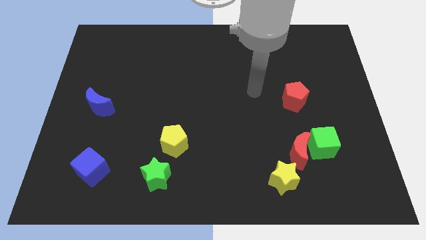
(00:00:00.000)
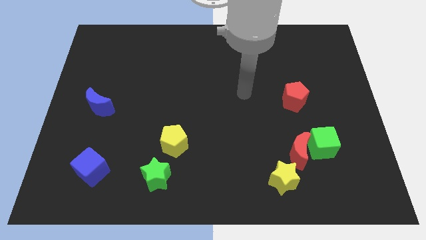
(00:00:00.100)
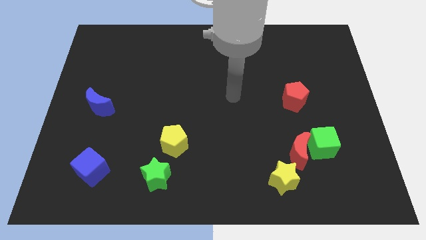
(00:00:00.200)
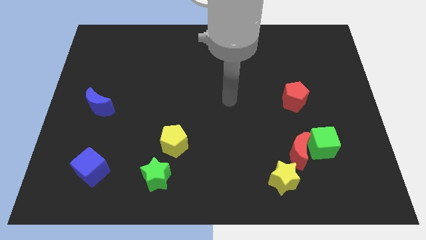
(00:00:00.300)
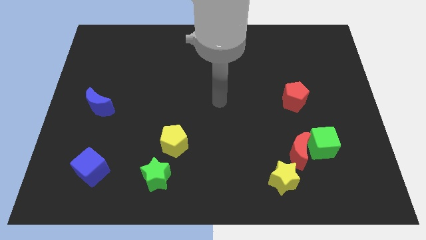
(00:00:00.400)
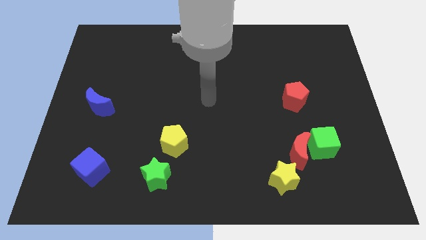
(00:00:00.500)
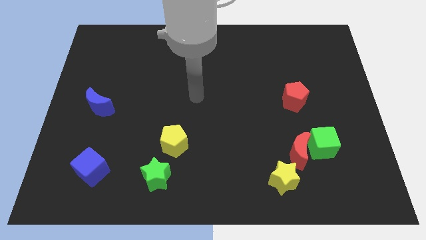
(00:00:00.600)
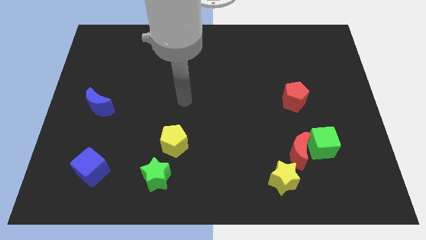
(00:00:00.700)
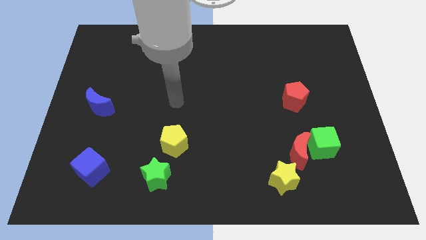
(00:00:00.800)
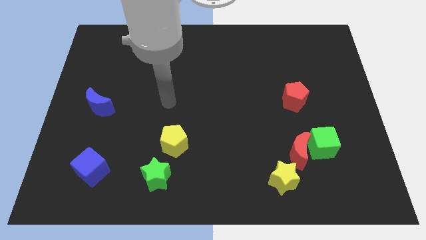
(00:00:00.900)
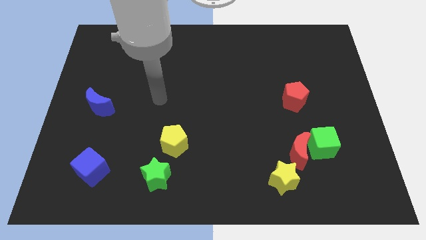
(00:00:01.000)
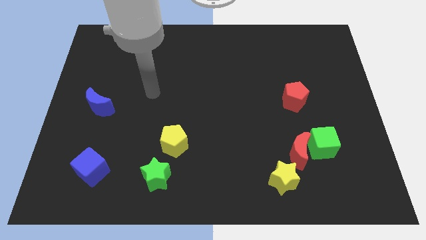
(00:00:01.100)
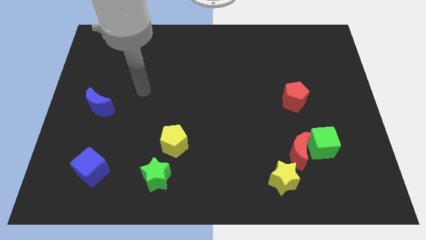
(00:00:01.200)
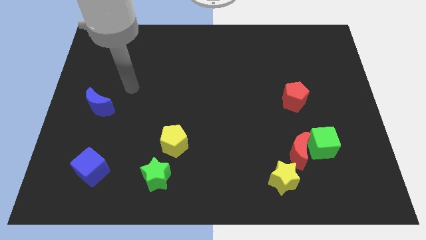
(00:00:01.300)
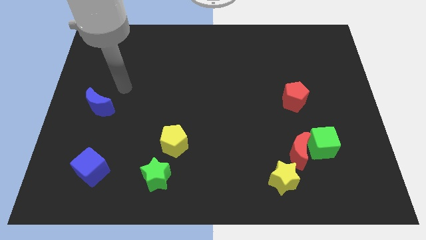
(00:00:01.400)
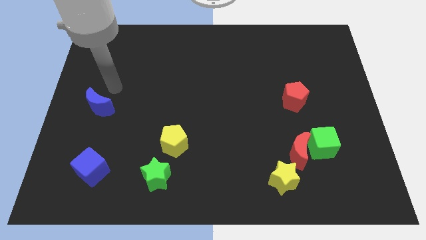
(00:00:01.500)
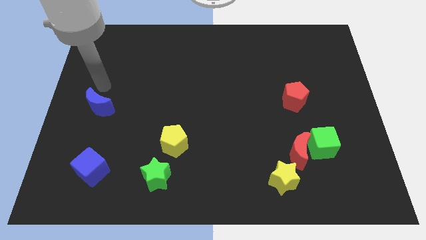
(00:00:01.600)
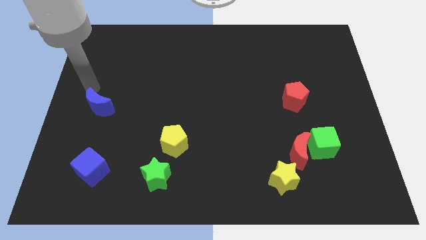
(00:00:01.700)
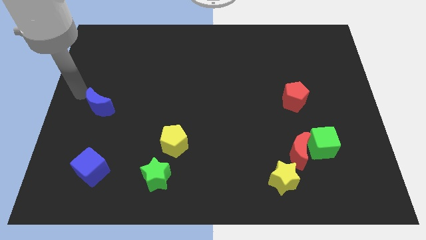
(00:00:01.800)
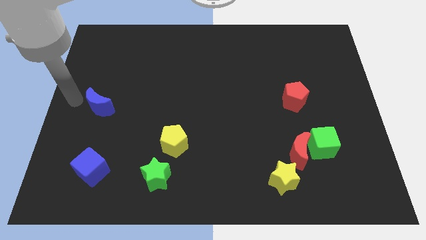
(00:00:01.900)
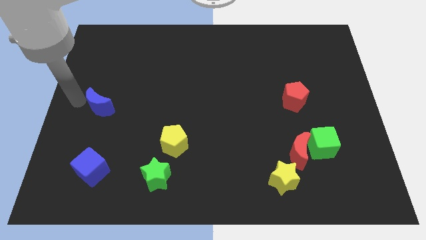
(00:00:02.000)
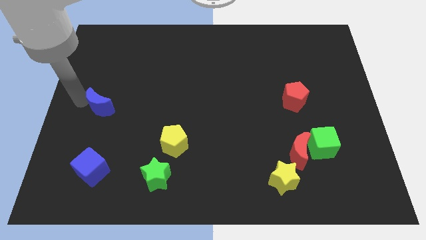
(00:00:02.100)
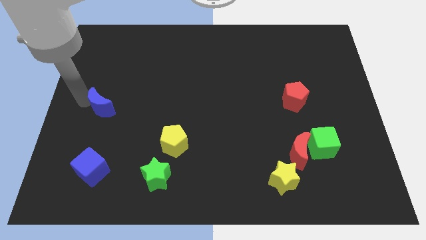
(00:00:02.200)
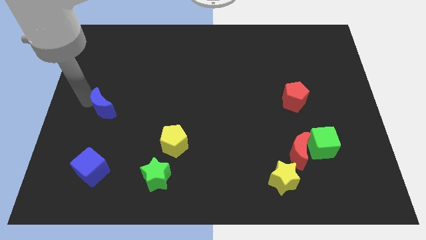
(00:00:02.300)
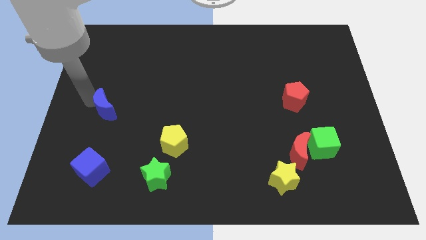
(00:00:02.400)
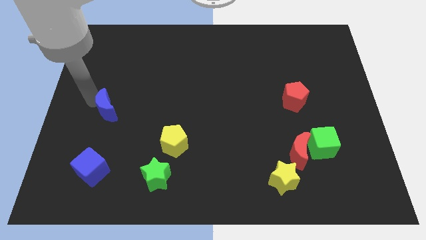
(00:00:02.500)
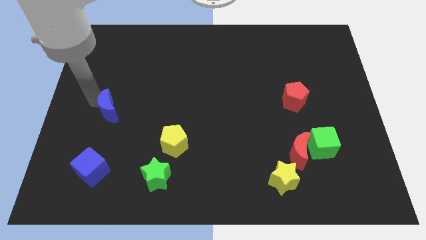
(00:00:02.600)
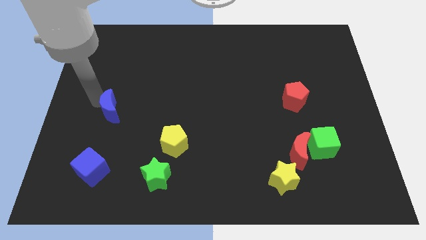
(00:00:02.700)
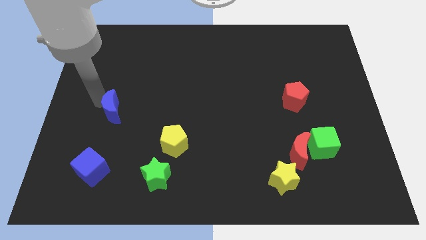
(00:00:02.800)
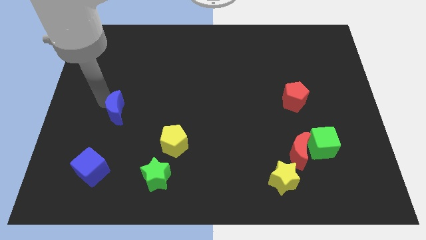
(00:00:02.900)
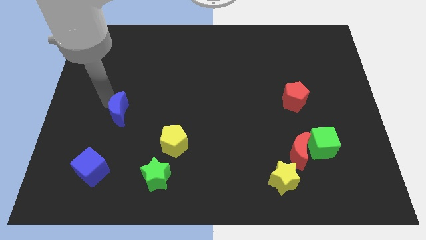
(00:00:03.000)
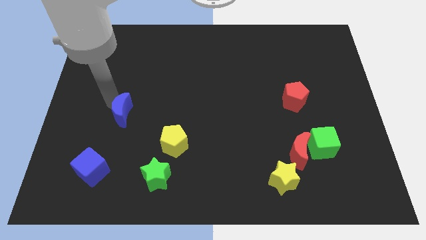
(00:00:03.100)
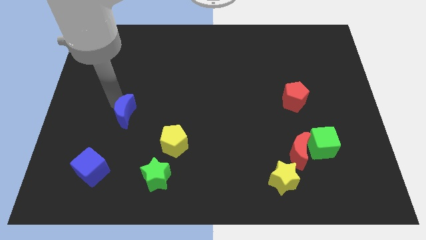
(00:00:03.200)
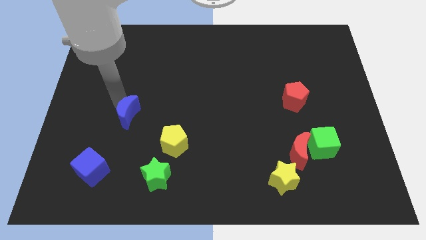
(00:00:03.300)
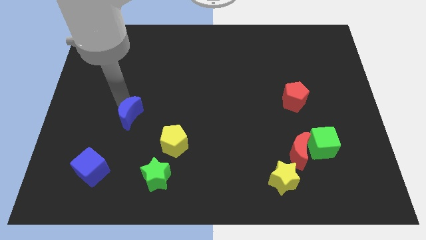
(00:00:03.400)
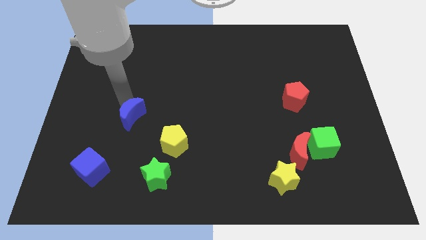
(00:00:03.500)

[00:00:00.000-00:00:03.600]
slightly slide the blue moon diagonally down and to the right

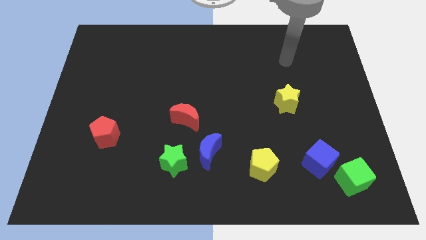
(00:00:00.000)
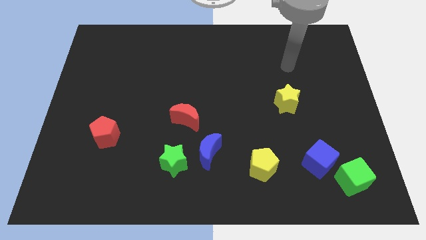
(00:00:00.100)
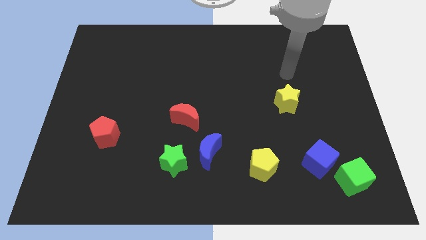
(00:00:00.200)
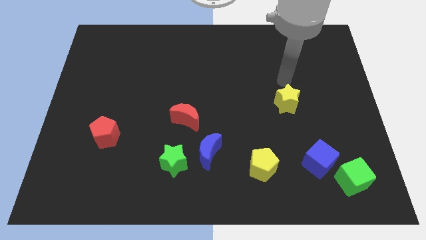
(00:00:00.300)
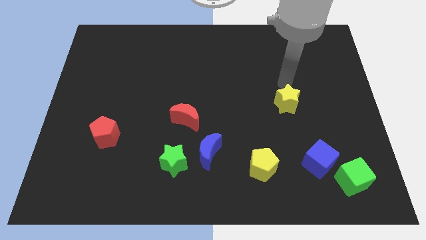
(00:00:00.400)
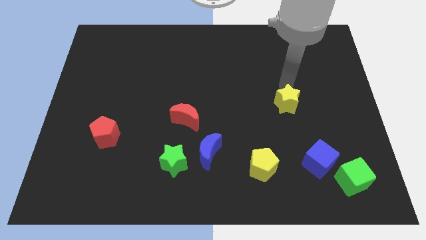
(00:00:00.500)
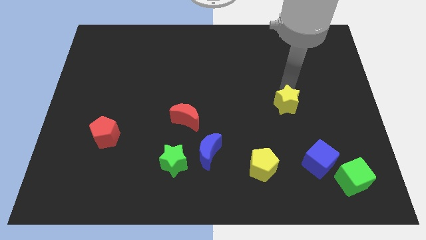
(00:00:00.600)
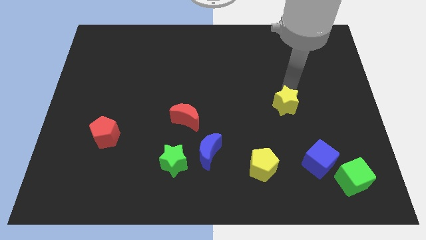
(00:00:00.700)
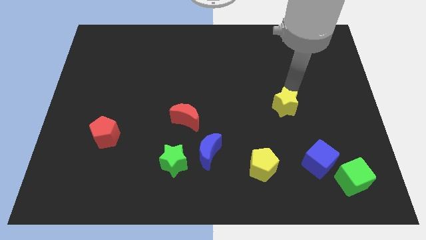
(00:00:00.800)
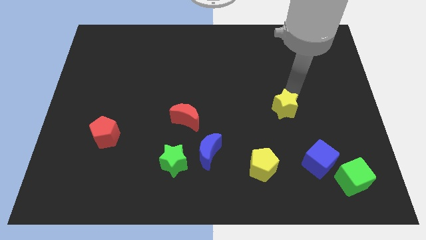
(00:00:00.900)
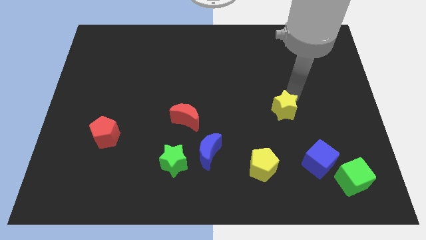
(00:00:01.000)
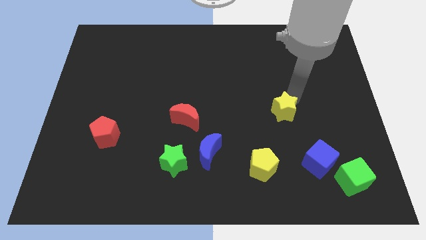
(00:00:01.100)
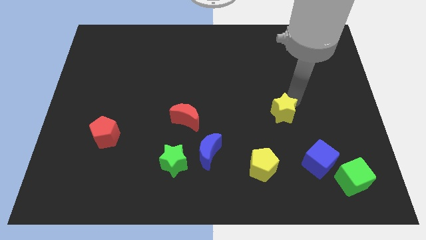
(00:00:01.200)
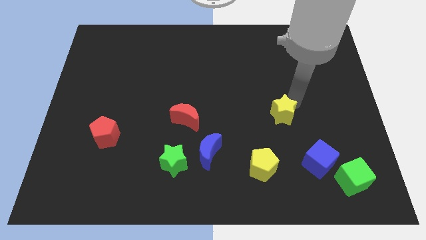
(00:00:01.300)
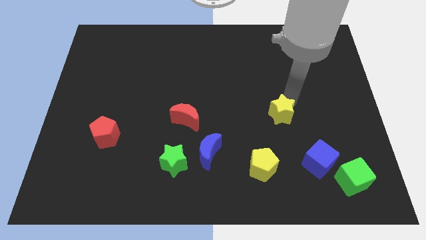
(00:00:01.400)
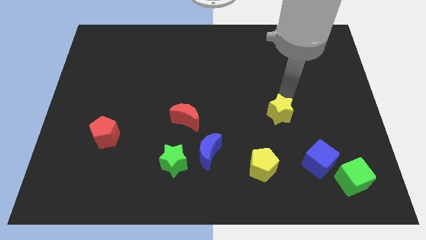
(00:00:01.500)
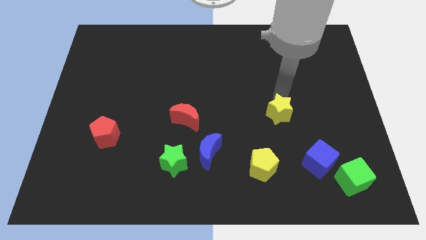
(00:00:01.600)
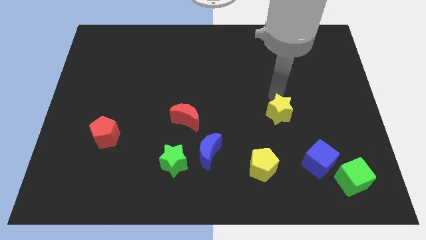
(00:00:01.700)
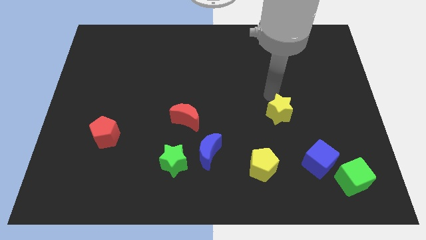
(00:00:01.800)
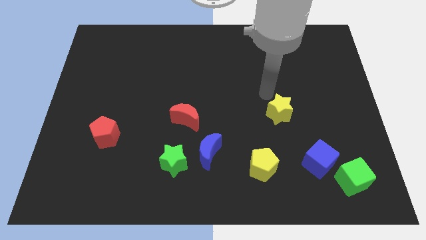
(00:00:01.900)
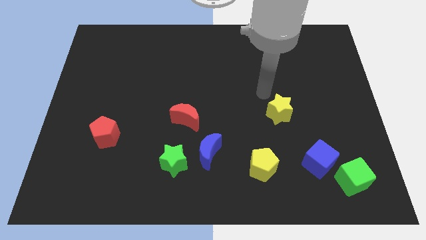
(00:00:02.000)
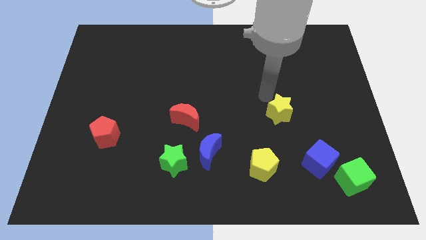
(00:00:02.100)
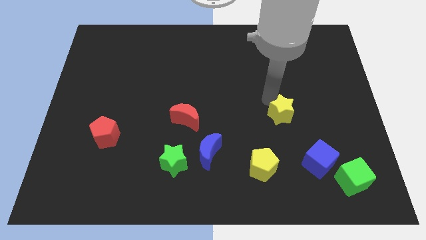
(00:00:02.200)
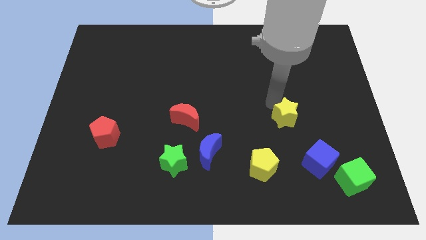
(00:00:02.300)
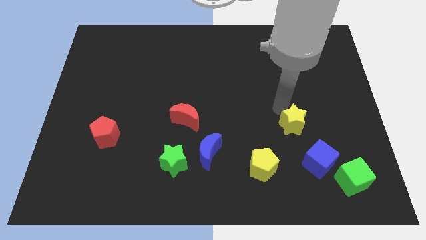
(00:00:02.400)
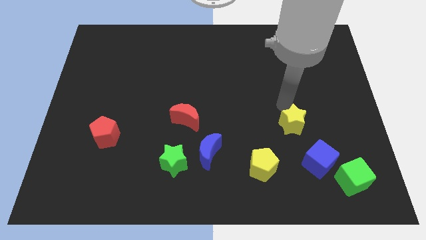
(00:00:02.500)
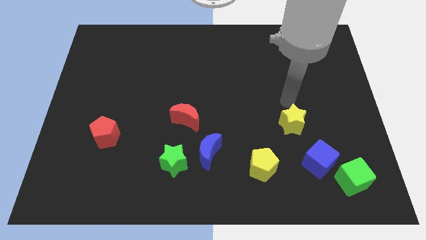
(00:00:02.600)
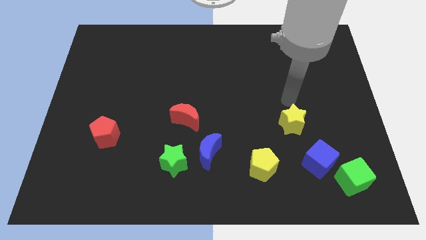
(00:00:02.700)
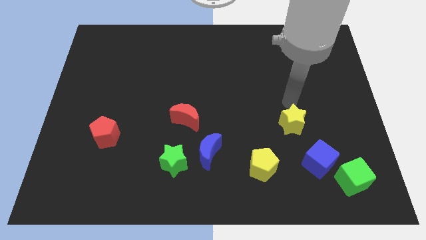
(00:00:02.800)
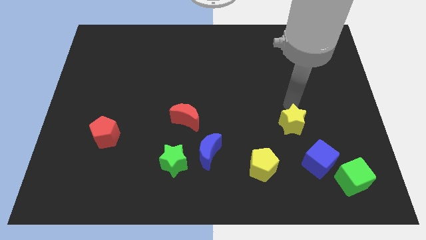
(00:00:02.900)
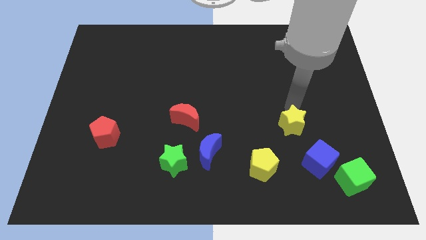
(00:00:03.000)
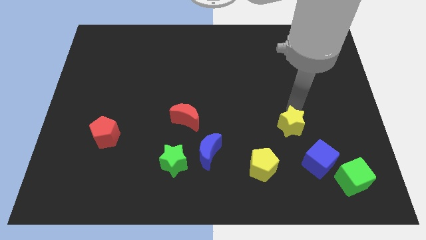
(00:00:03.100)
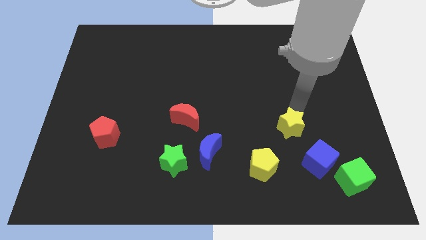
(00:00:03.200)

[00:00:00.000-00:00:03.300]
push the yellow star down a little

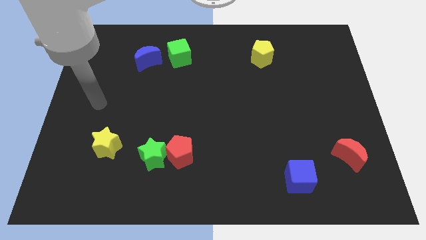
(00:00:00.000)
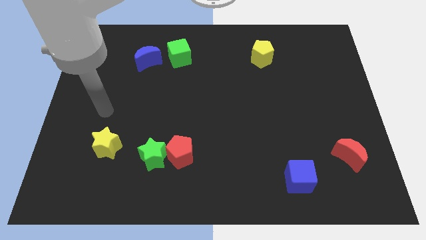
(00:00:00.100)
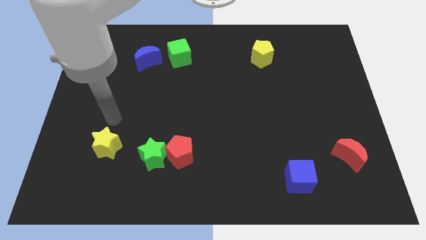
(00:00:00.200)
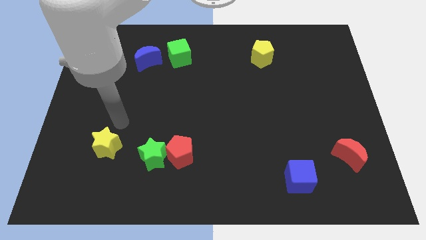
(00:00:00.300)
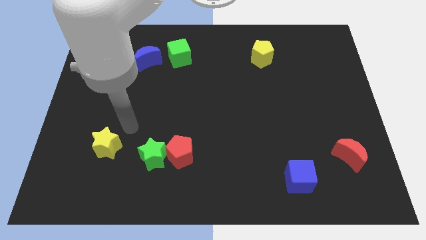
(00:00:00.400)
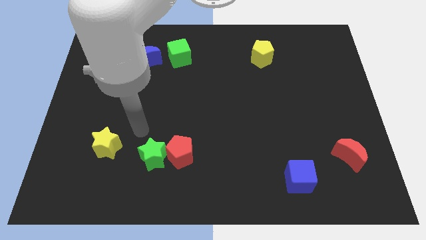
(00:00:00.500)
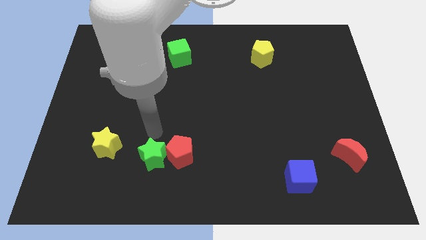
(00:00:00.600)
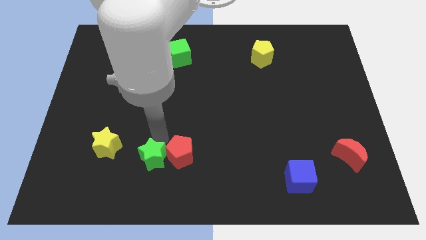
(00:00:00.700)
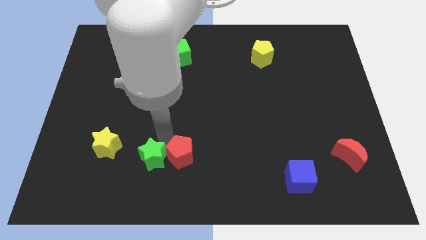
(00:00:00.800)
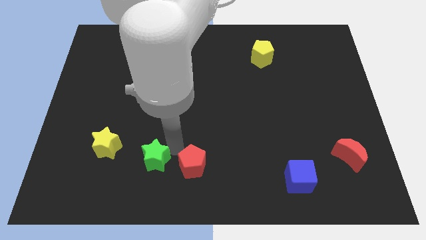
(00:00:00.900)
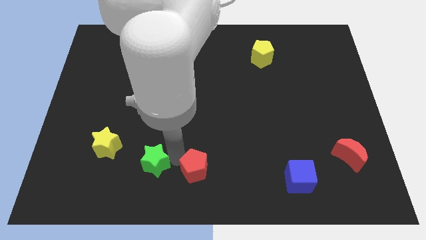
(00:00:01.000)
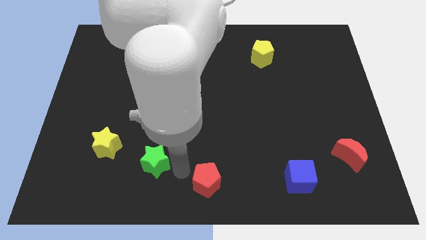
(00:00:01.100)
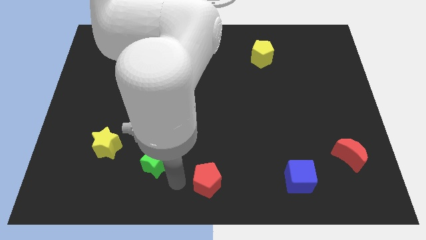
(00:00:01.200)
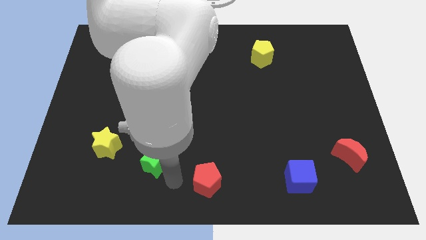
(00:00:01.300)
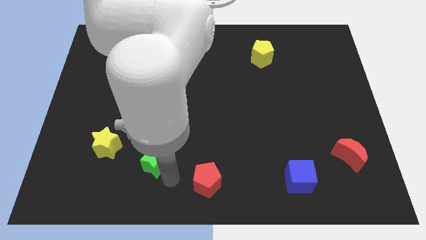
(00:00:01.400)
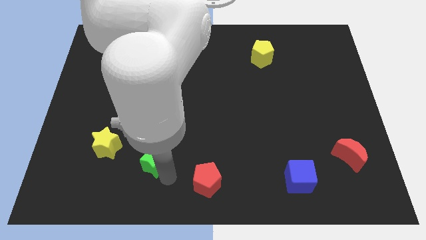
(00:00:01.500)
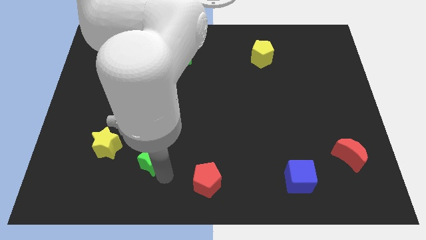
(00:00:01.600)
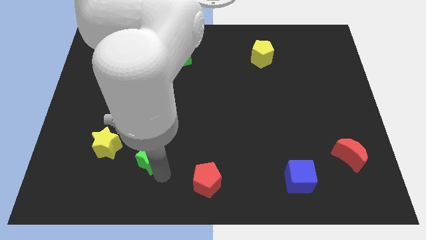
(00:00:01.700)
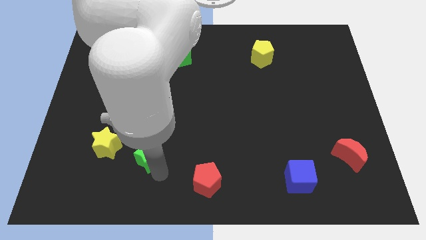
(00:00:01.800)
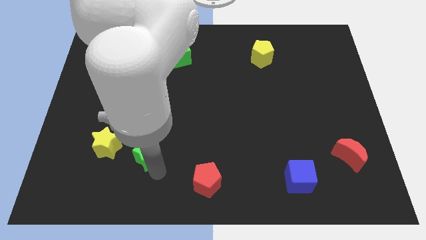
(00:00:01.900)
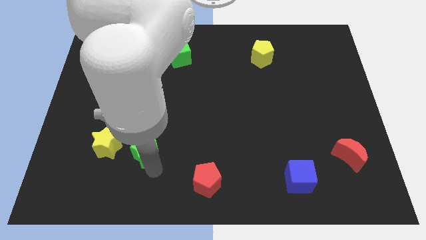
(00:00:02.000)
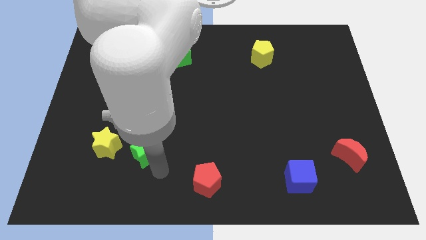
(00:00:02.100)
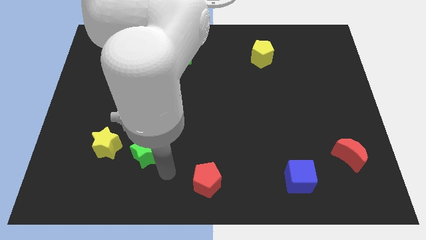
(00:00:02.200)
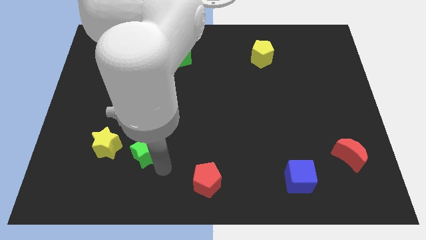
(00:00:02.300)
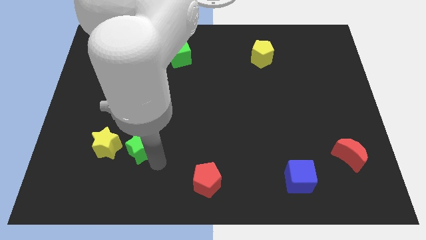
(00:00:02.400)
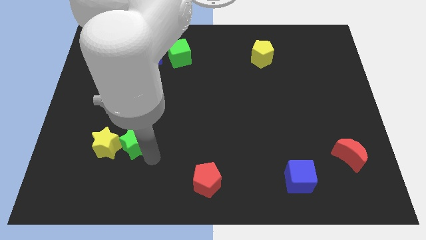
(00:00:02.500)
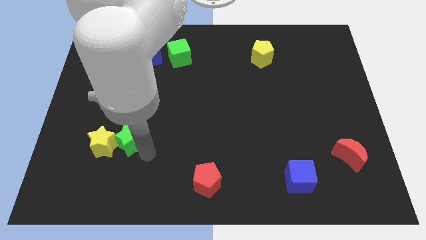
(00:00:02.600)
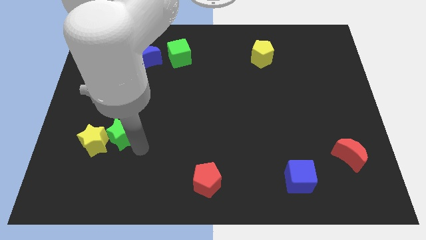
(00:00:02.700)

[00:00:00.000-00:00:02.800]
slide the green star upwards and to the left diagonally slightly
